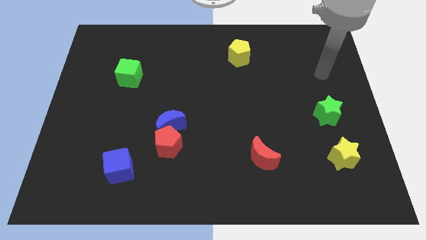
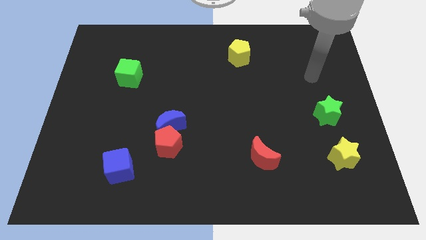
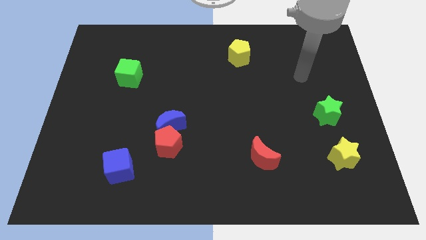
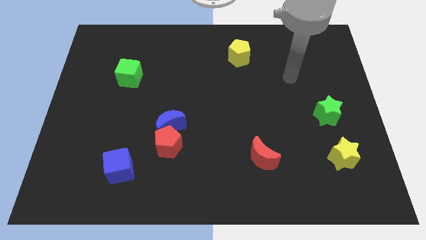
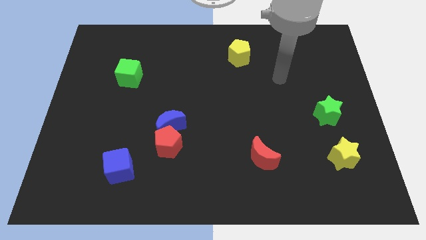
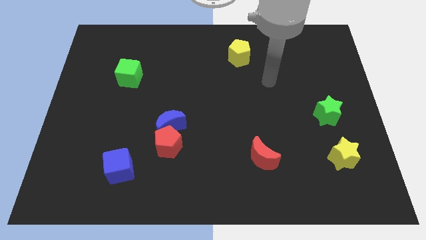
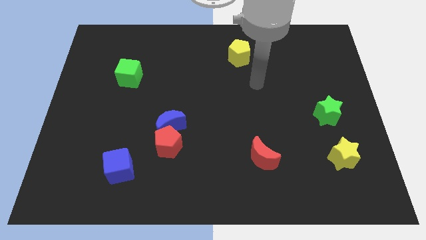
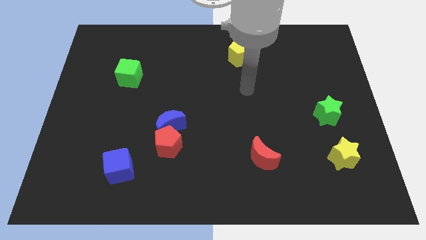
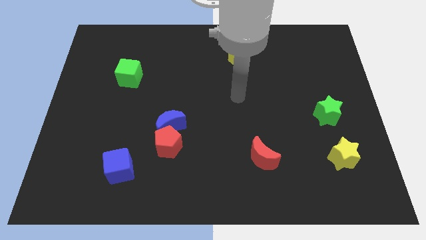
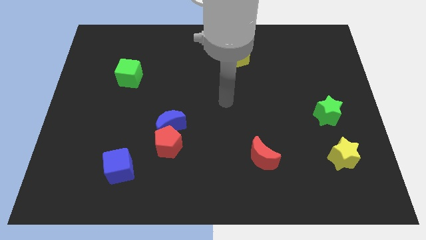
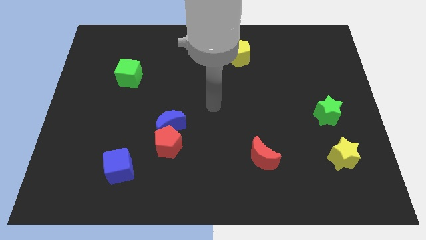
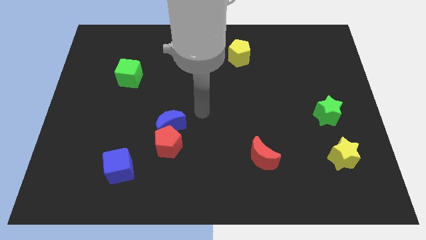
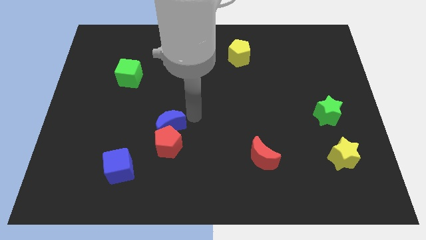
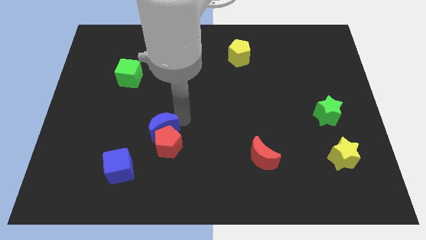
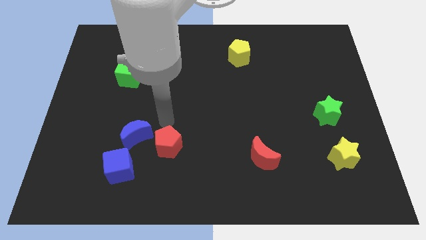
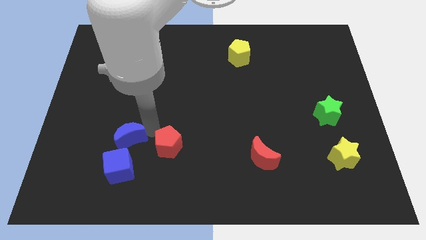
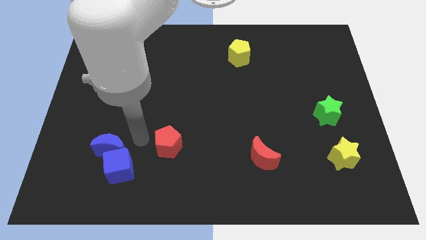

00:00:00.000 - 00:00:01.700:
separate the red pentagon from the blue moon

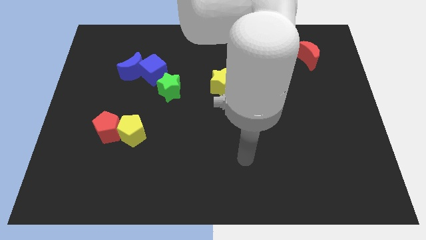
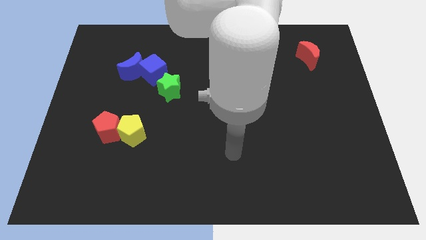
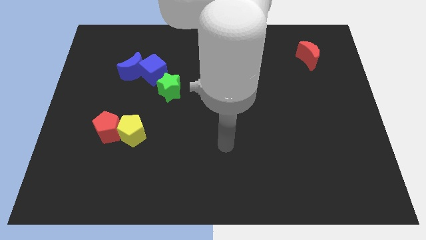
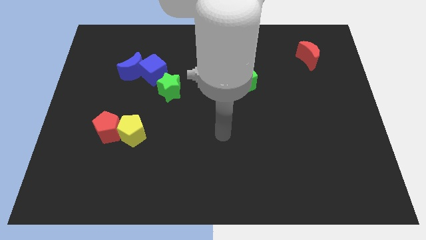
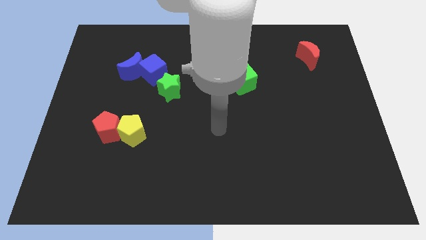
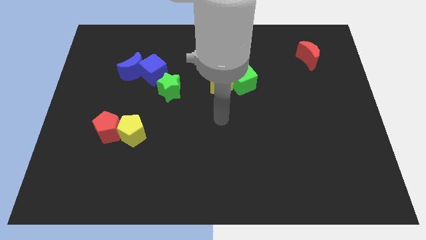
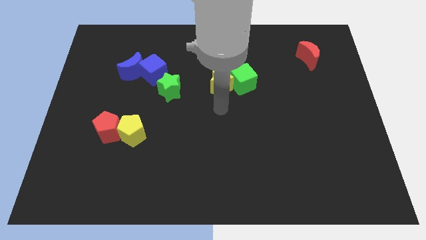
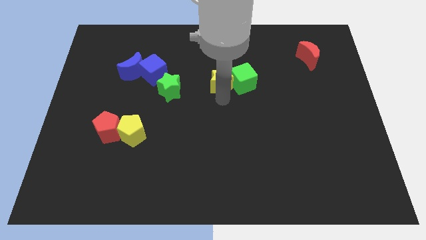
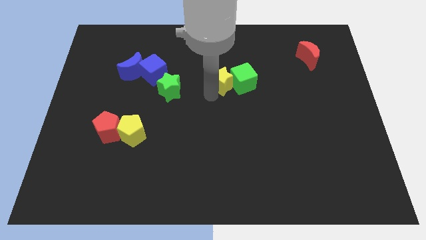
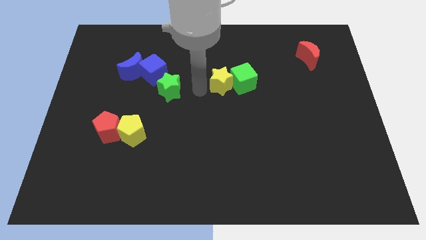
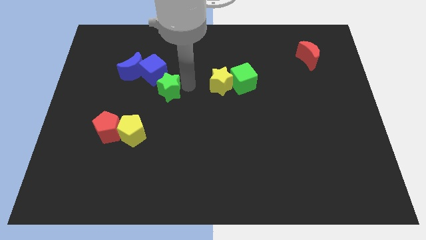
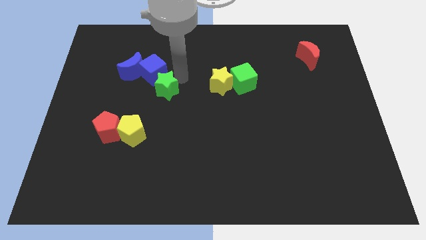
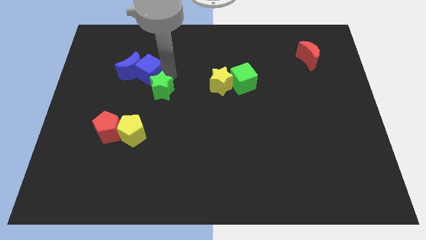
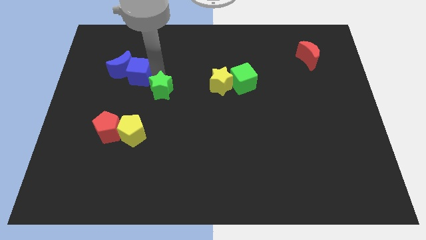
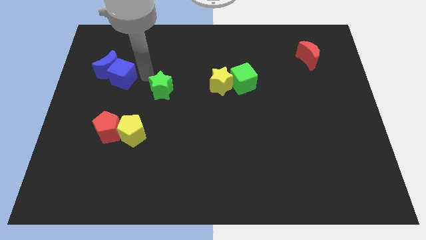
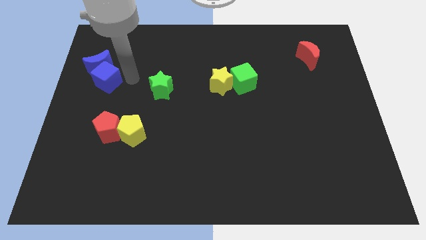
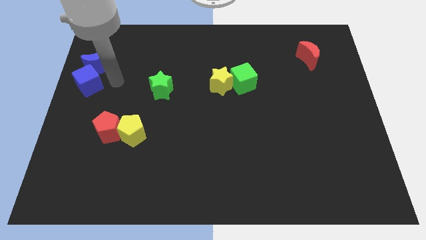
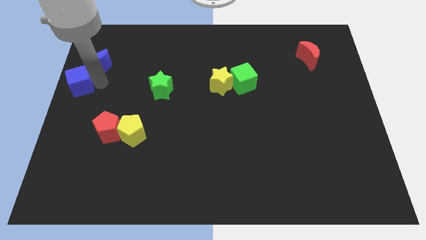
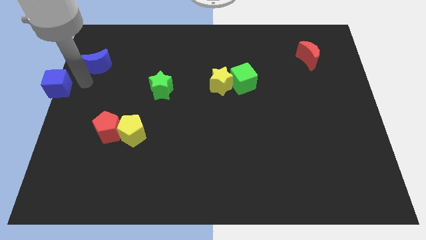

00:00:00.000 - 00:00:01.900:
separate the blue moon from the blue cube

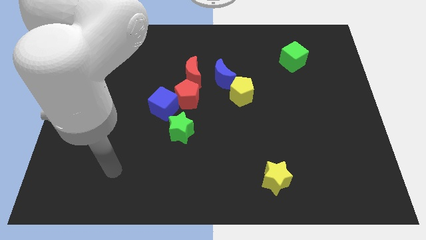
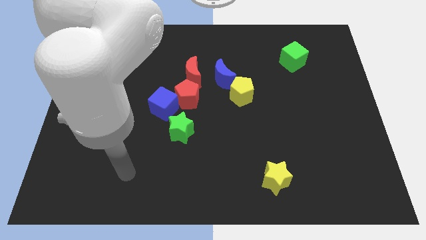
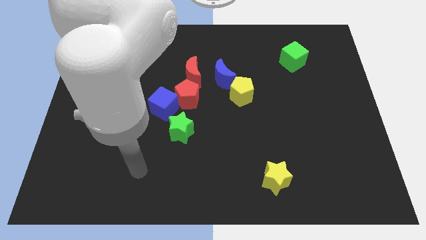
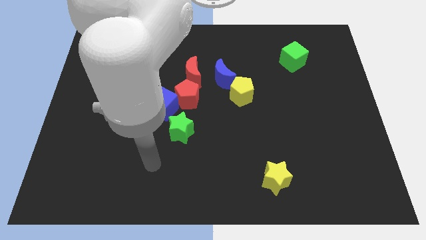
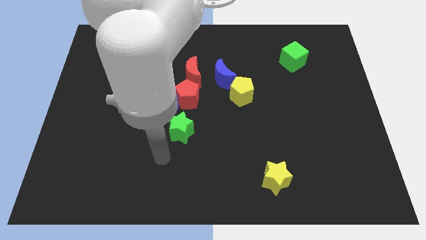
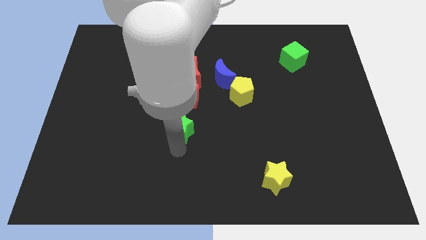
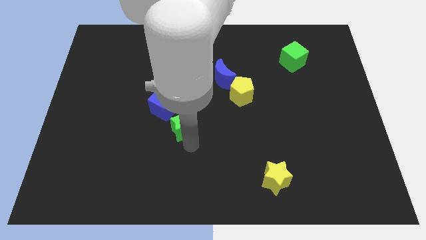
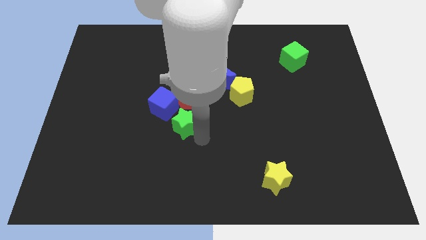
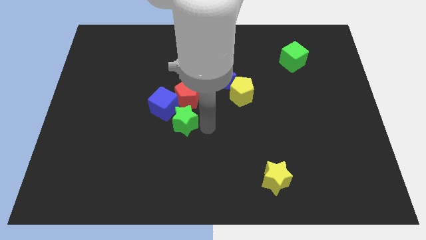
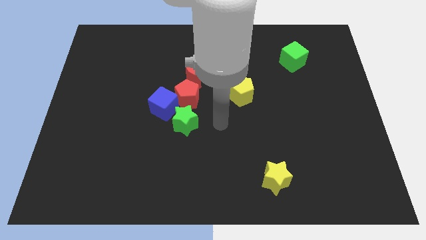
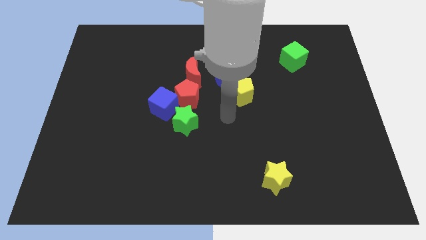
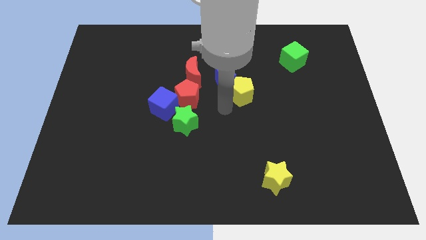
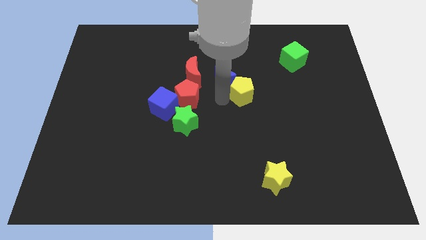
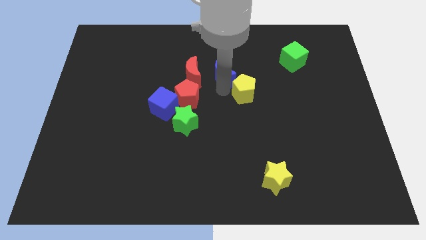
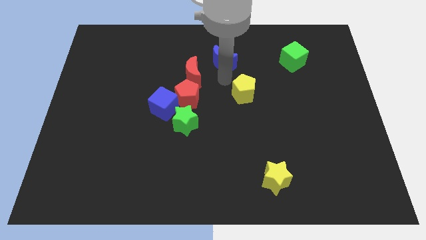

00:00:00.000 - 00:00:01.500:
separate the yellow pentagon from the blue moon

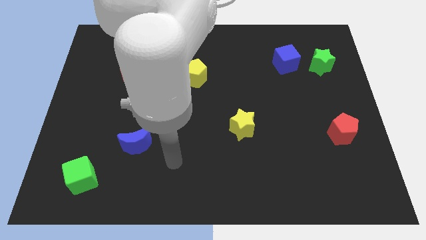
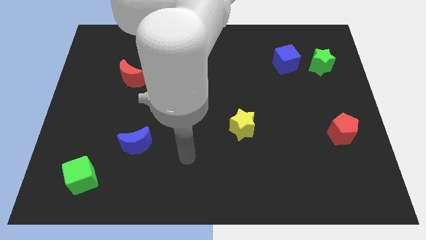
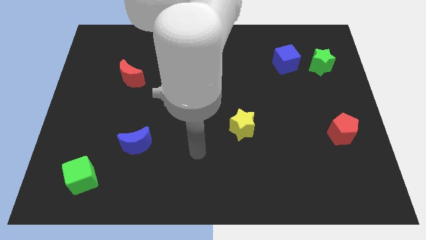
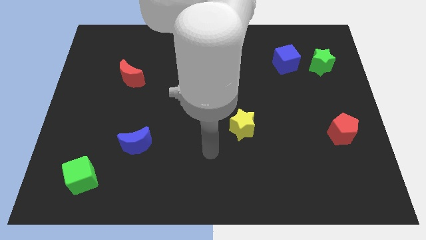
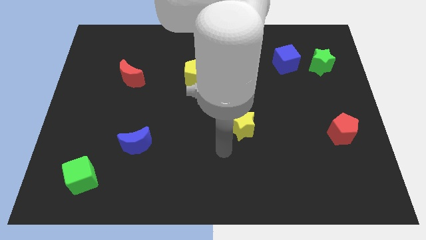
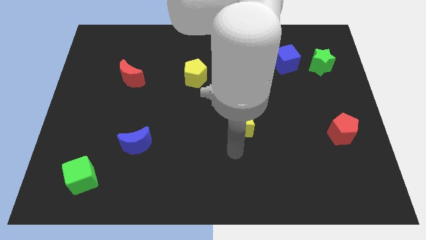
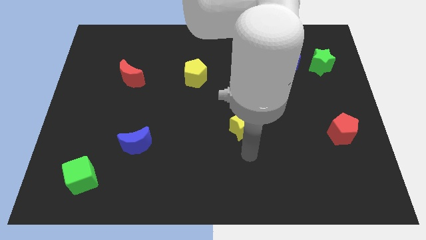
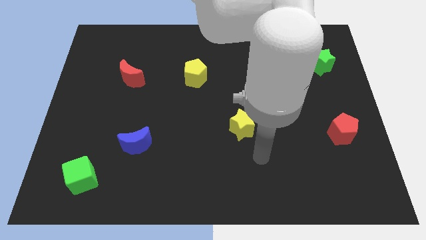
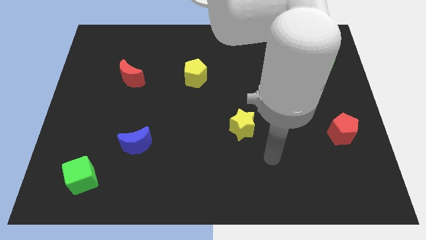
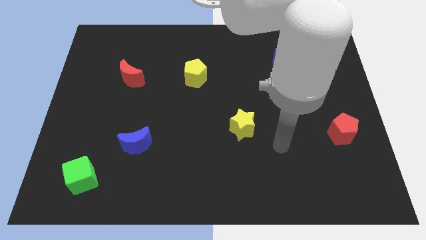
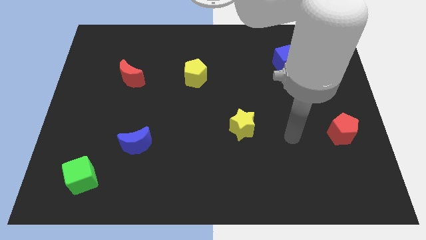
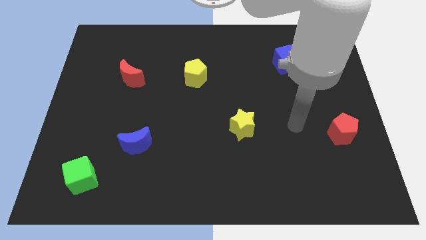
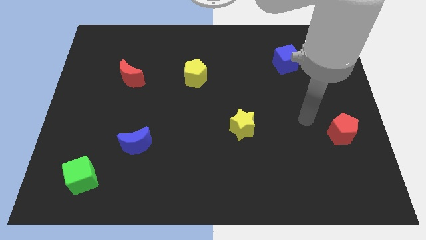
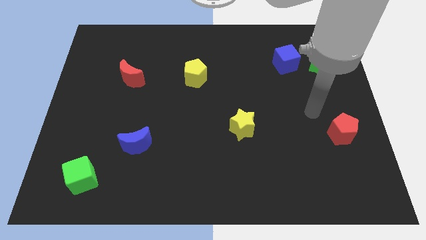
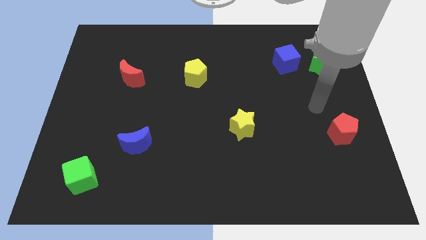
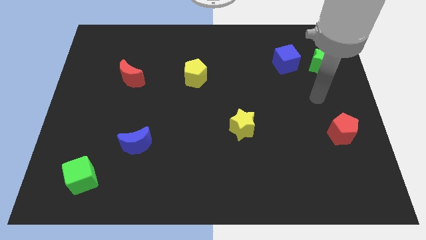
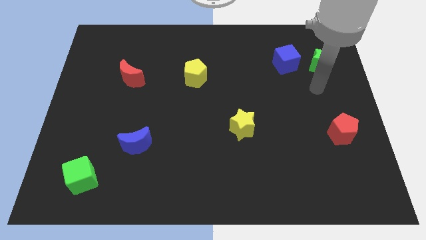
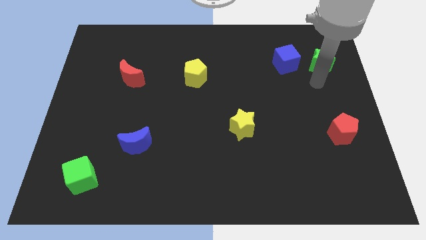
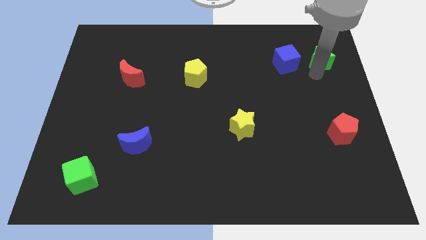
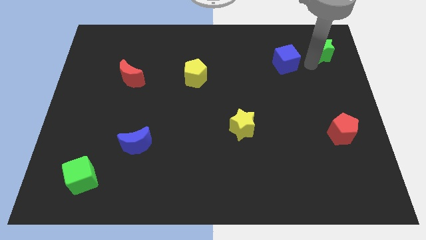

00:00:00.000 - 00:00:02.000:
pull the blue cube apart from the green star

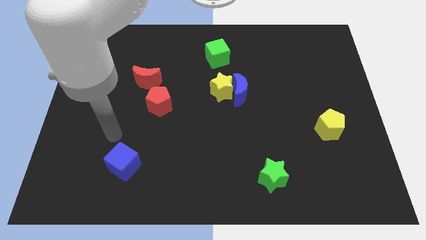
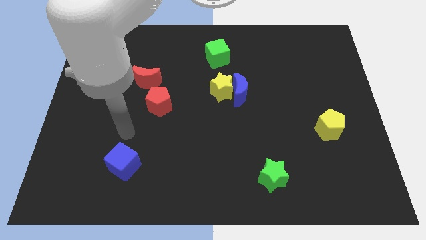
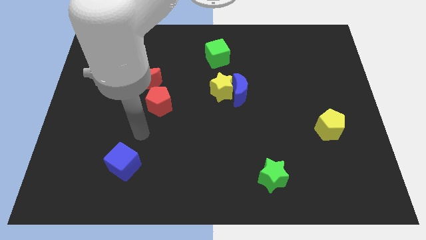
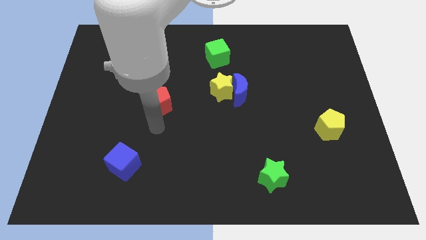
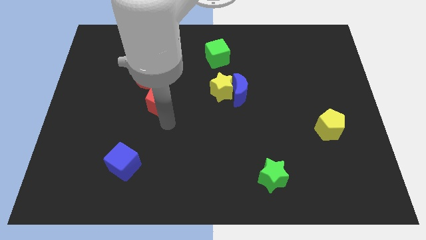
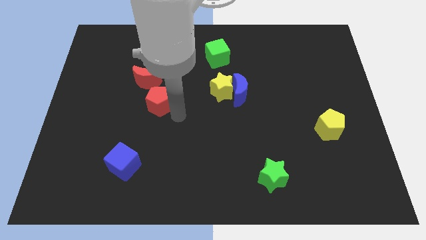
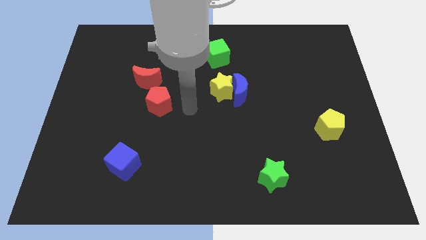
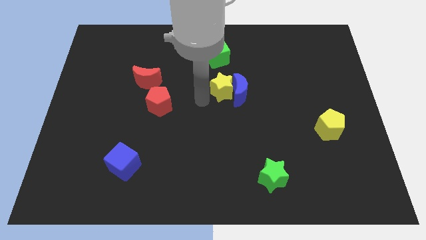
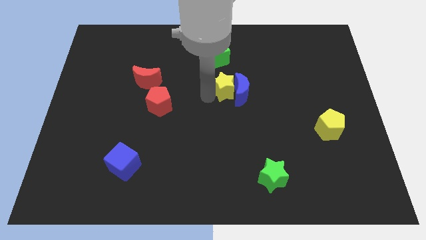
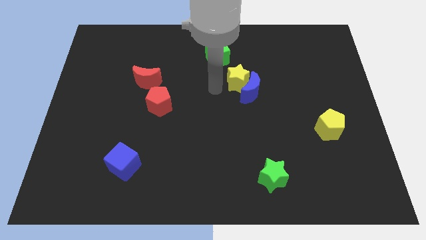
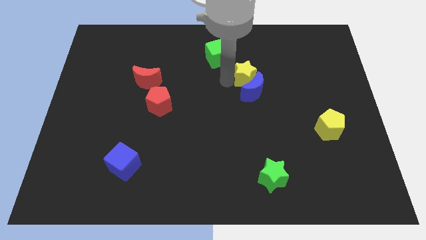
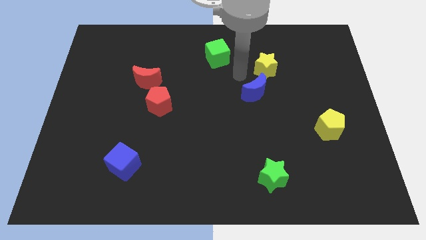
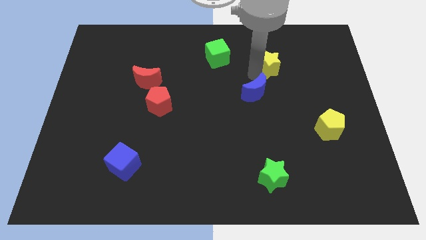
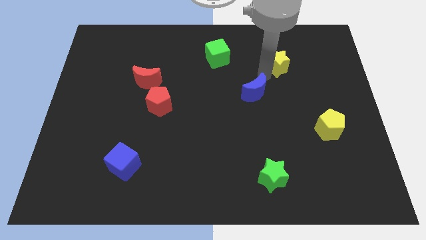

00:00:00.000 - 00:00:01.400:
separate the blue moon from the yellow star

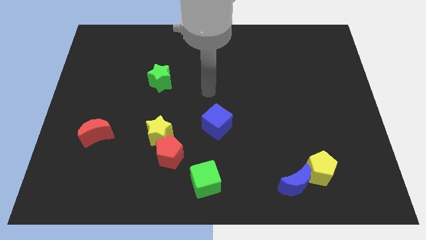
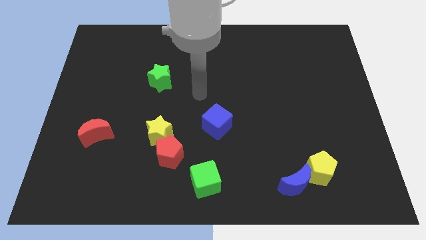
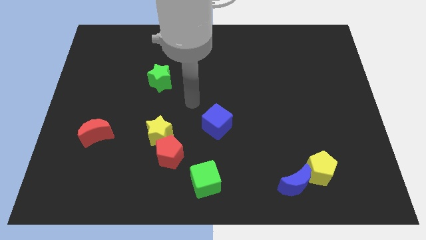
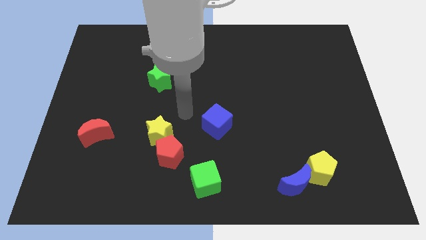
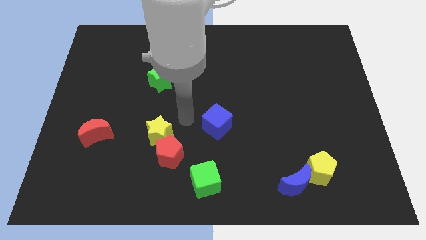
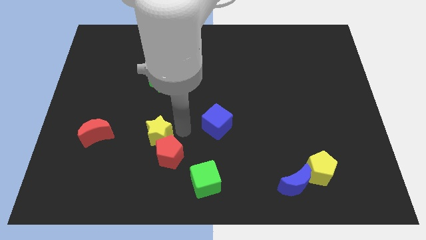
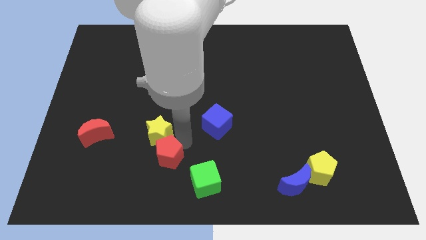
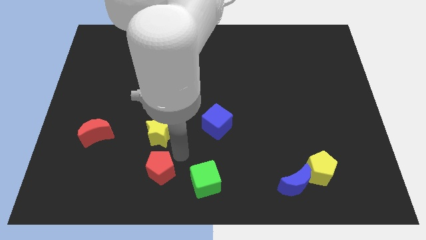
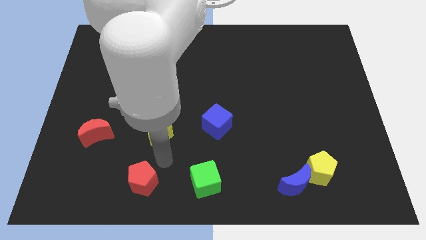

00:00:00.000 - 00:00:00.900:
move the yellow star away from the red pentagon
